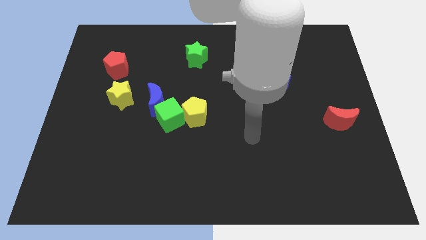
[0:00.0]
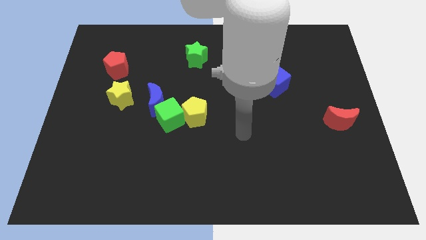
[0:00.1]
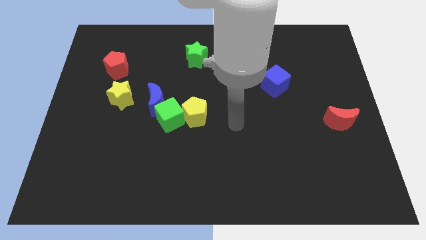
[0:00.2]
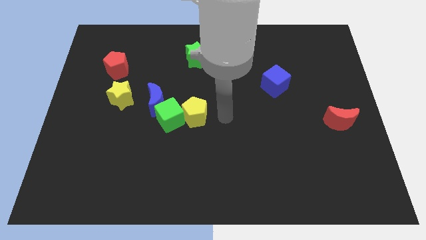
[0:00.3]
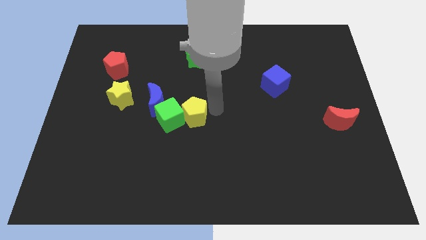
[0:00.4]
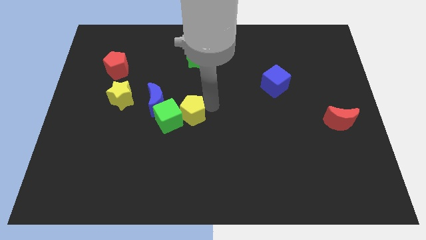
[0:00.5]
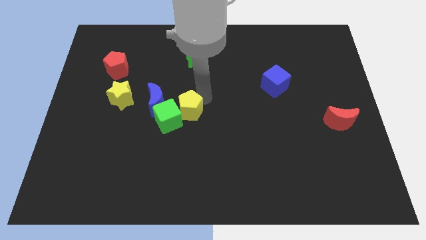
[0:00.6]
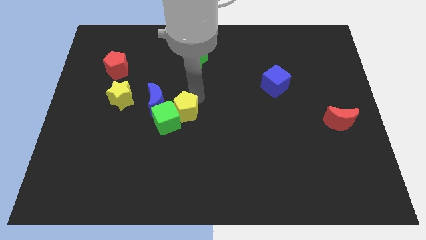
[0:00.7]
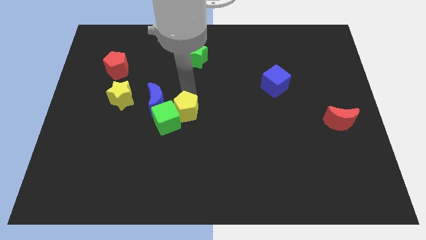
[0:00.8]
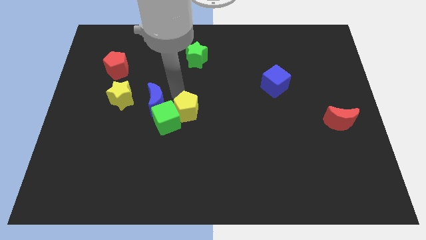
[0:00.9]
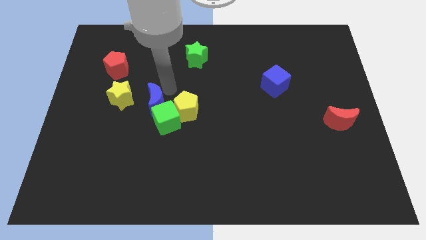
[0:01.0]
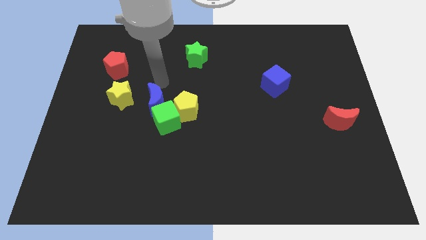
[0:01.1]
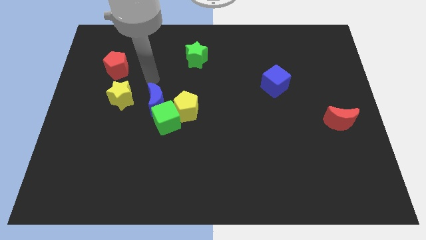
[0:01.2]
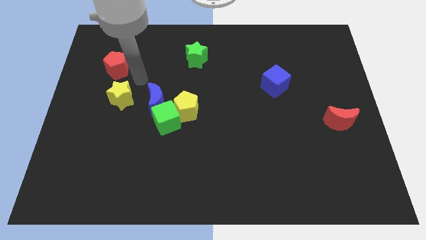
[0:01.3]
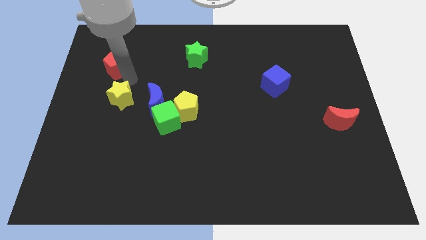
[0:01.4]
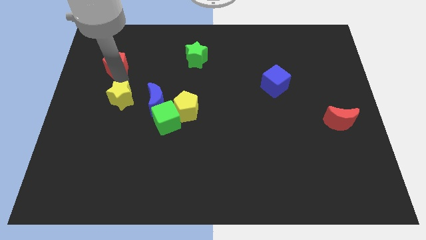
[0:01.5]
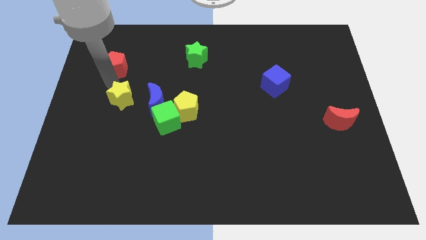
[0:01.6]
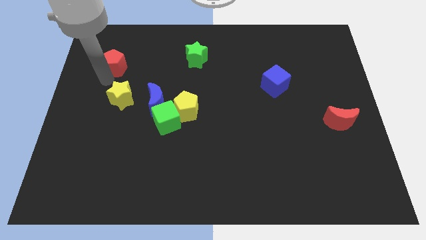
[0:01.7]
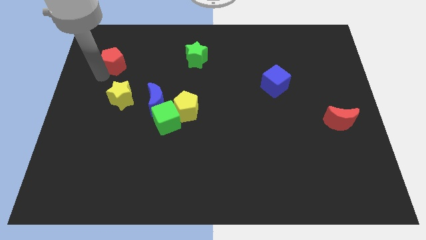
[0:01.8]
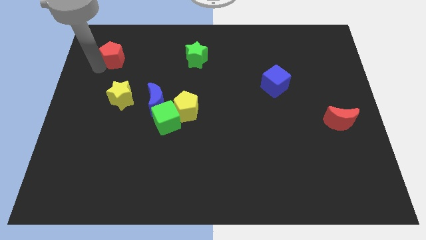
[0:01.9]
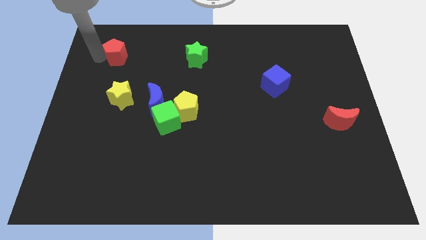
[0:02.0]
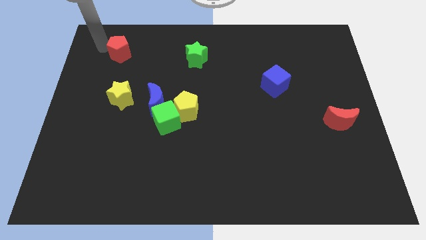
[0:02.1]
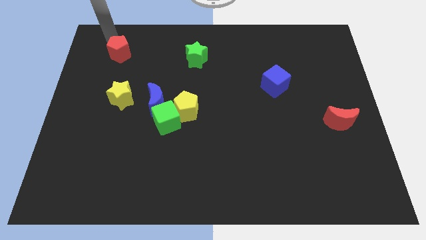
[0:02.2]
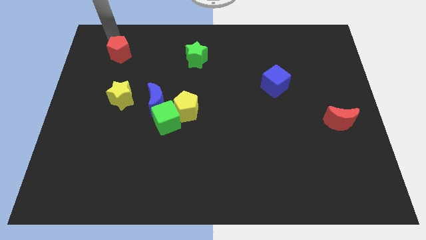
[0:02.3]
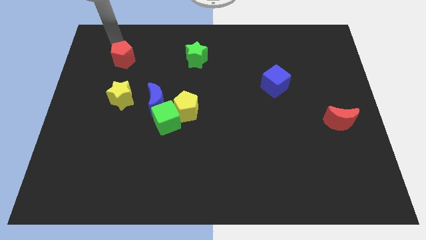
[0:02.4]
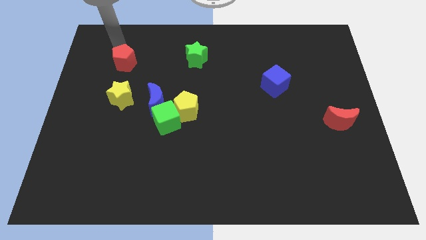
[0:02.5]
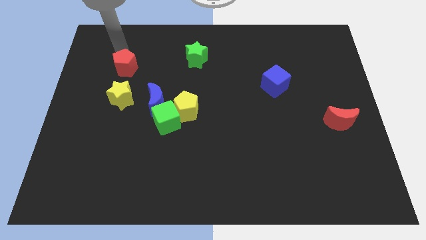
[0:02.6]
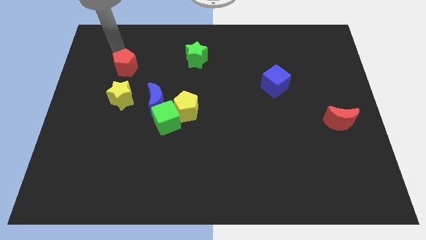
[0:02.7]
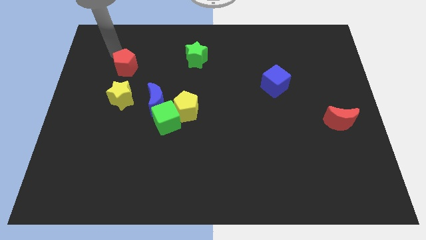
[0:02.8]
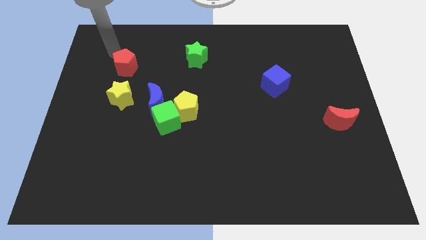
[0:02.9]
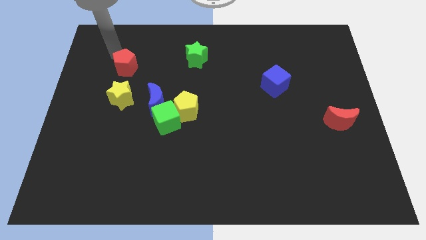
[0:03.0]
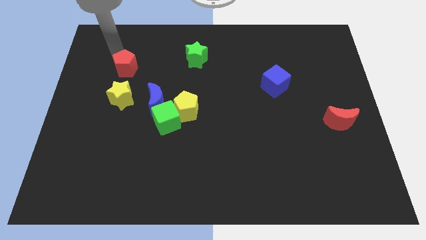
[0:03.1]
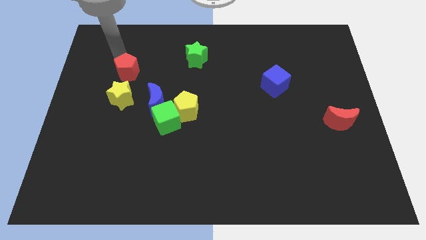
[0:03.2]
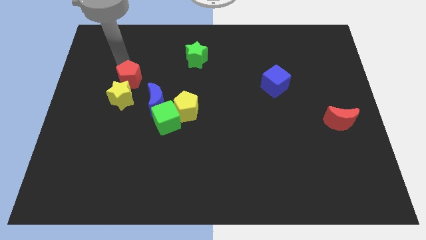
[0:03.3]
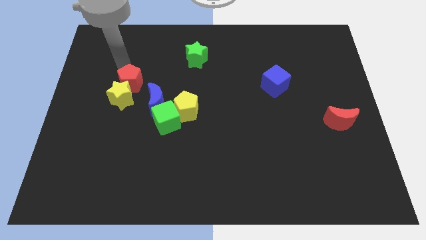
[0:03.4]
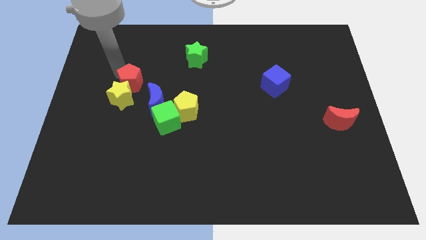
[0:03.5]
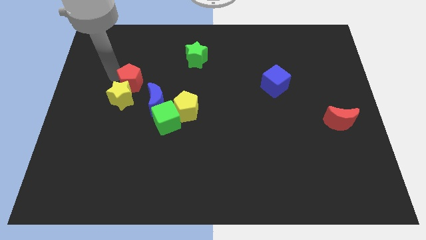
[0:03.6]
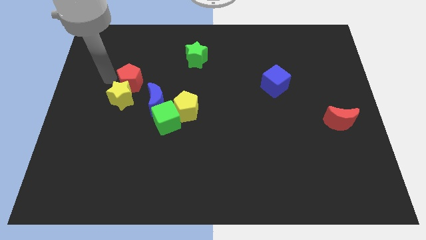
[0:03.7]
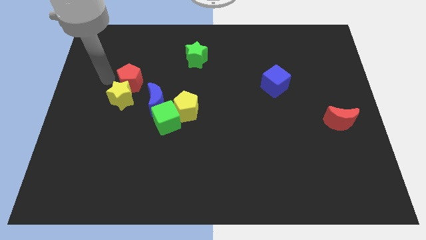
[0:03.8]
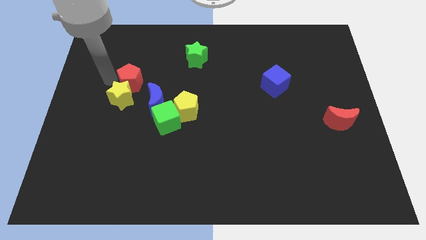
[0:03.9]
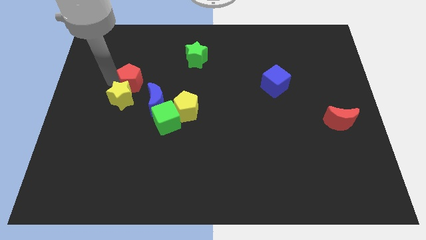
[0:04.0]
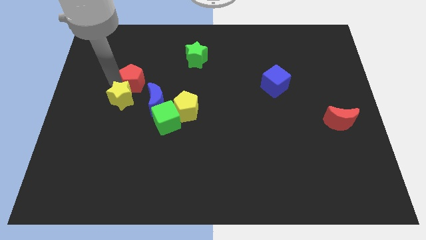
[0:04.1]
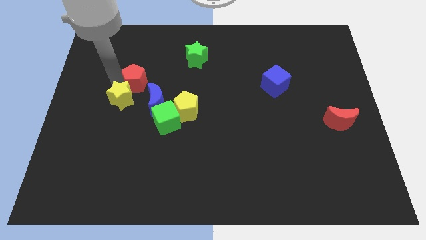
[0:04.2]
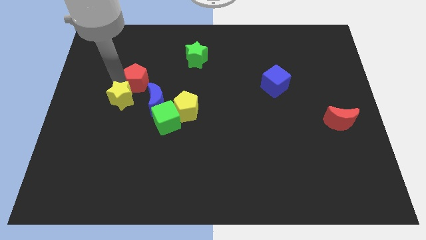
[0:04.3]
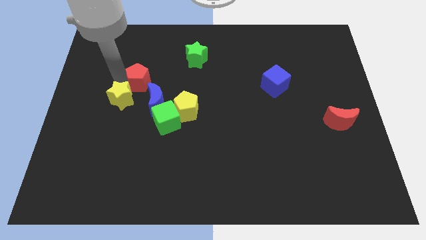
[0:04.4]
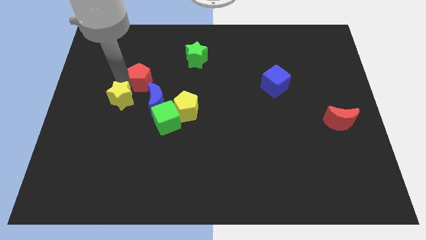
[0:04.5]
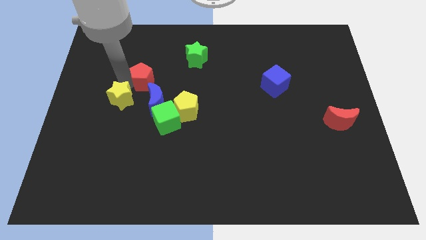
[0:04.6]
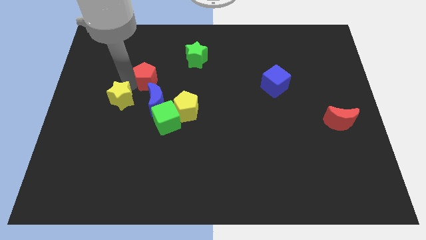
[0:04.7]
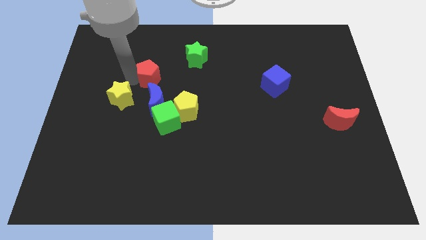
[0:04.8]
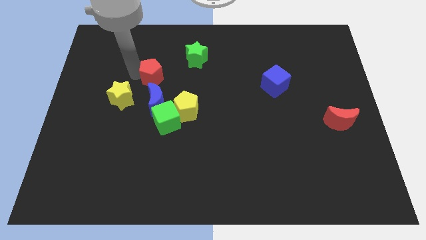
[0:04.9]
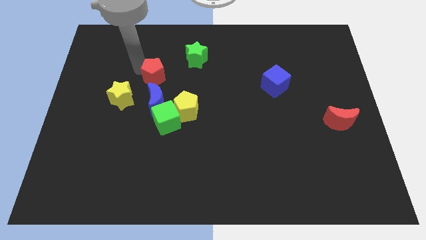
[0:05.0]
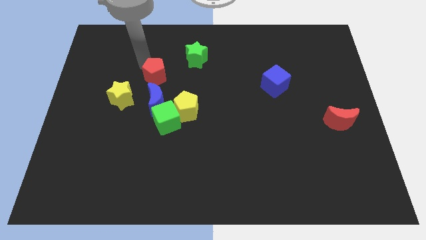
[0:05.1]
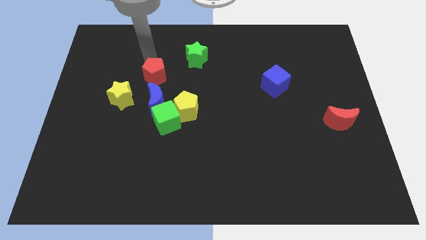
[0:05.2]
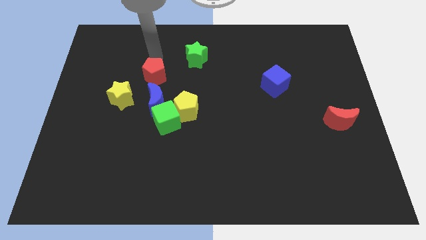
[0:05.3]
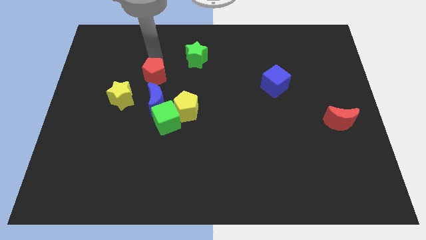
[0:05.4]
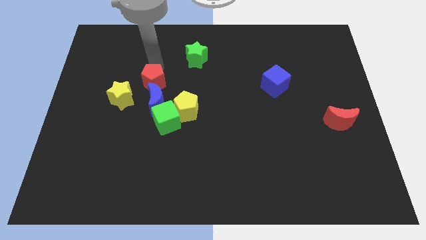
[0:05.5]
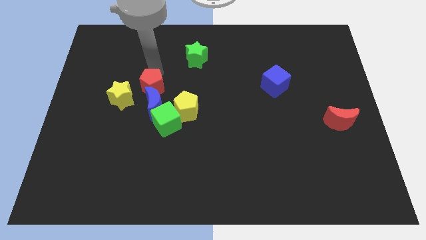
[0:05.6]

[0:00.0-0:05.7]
push the red pentagon to the blue moon

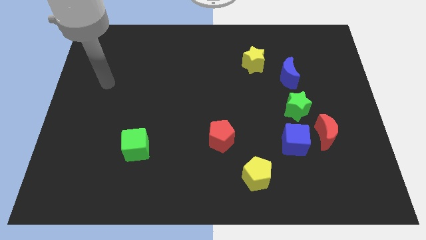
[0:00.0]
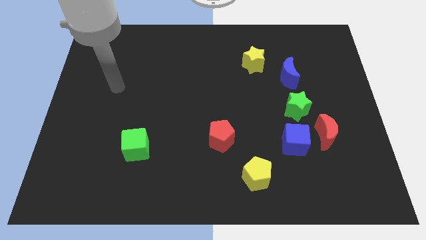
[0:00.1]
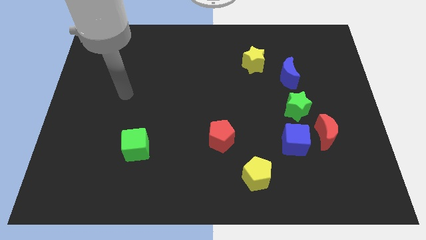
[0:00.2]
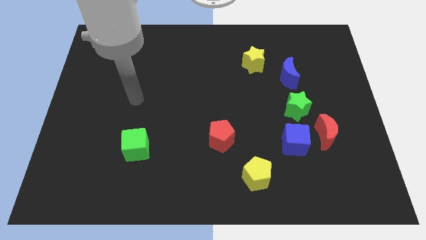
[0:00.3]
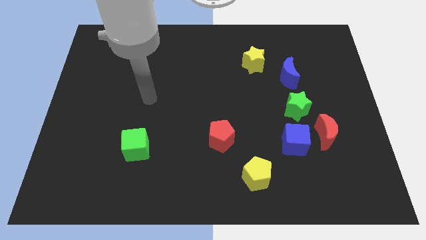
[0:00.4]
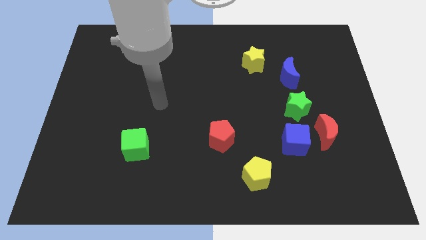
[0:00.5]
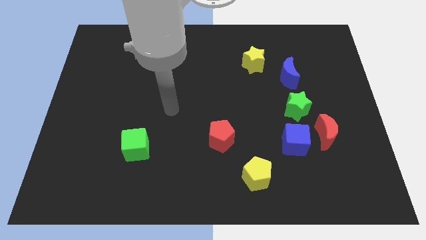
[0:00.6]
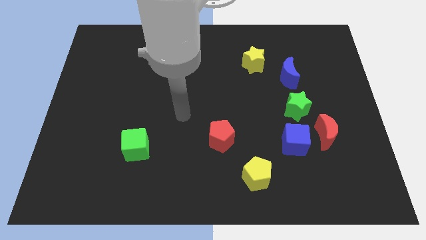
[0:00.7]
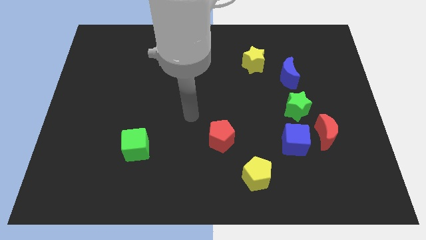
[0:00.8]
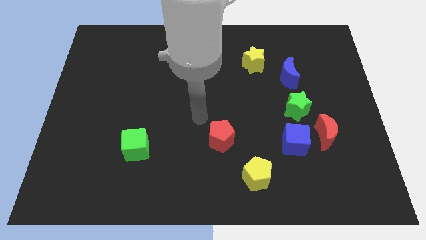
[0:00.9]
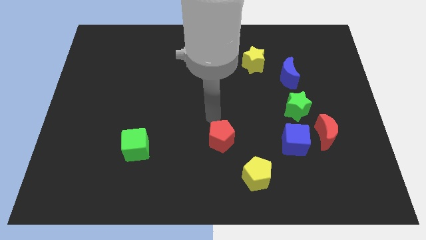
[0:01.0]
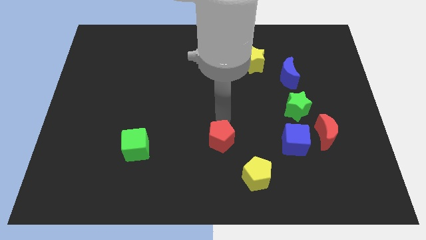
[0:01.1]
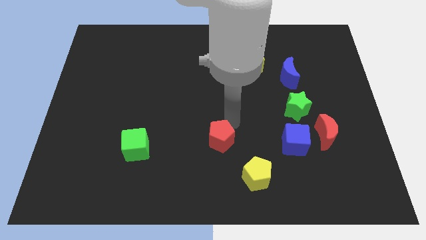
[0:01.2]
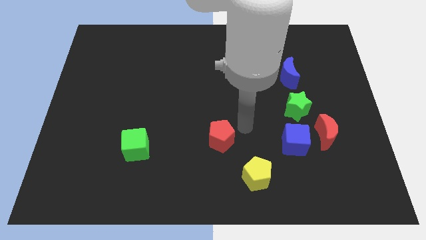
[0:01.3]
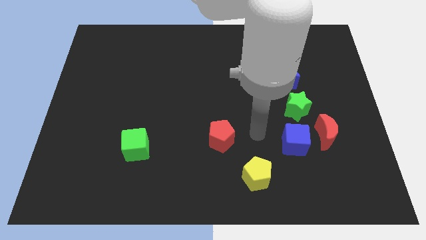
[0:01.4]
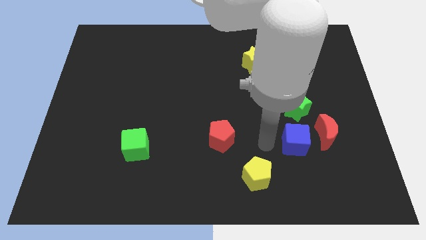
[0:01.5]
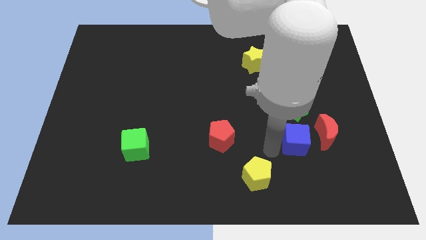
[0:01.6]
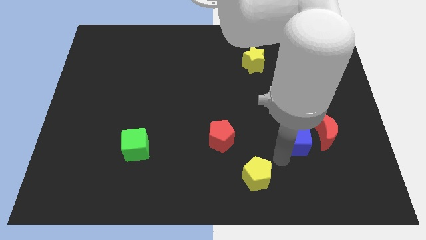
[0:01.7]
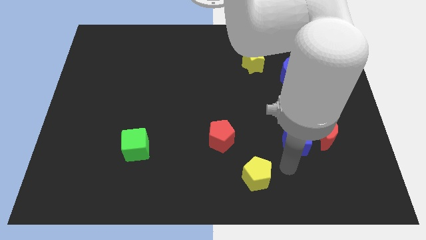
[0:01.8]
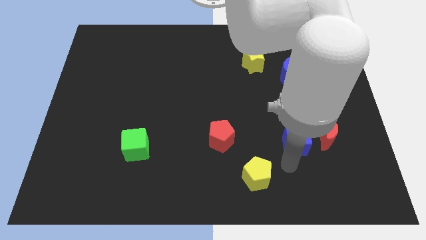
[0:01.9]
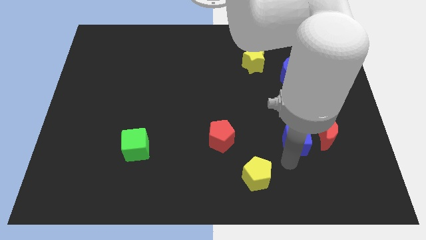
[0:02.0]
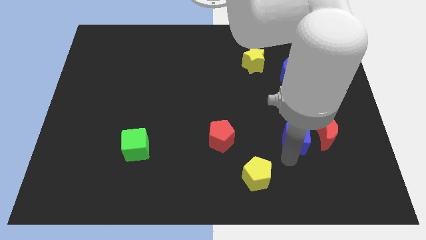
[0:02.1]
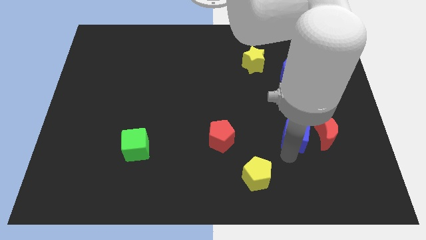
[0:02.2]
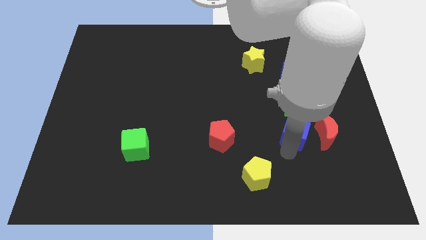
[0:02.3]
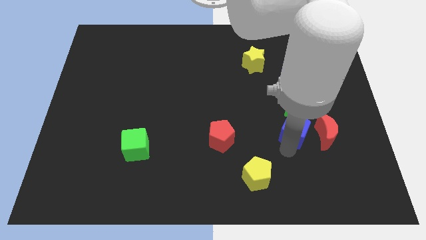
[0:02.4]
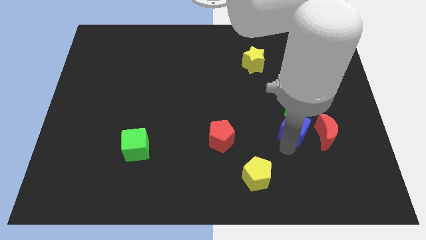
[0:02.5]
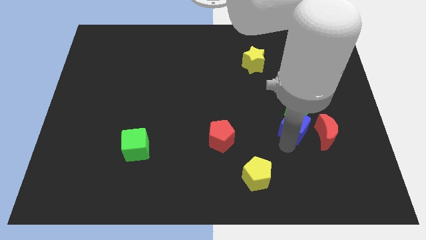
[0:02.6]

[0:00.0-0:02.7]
push the blue cube towards the green star
